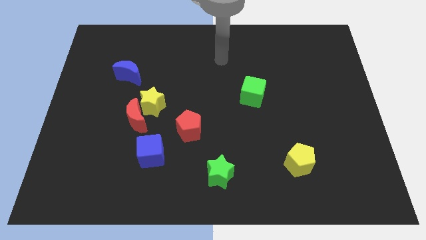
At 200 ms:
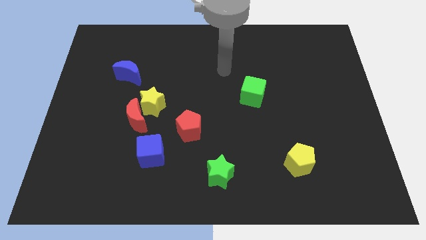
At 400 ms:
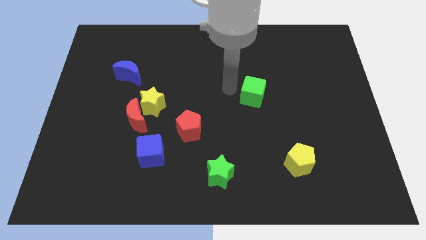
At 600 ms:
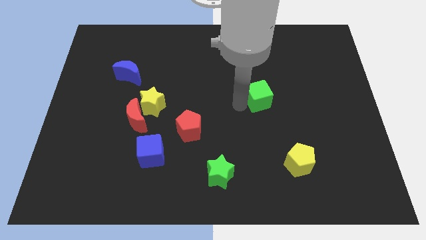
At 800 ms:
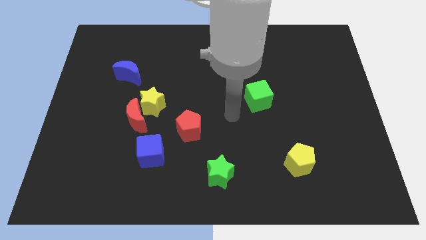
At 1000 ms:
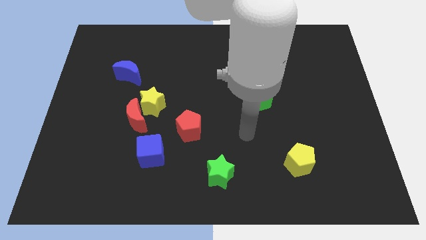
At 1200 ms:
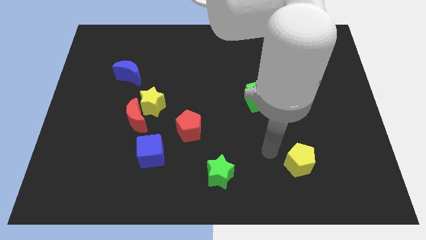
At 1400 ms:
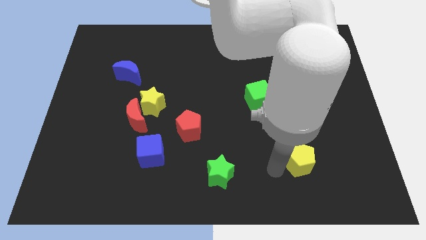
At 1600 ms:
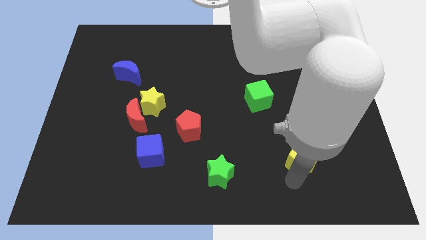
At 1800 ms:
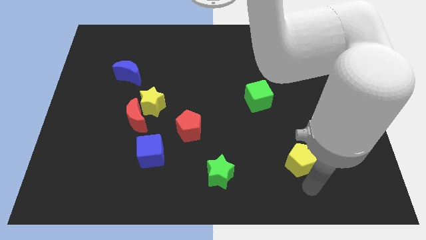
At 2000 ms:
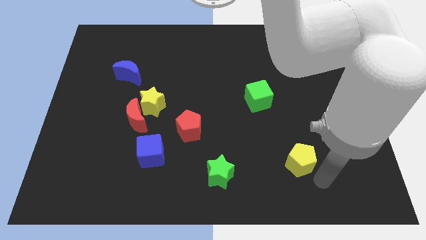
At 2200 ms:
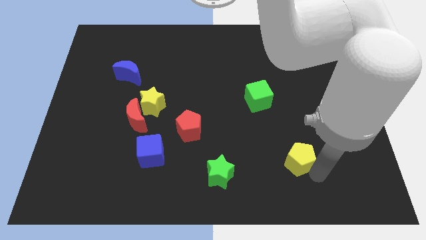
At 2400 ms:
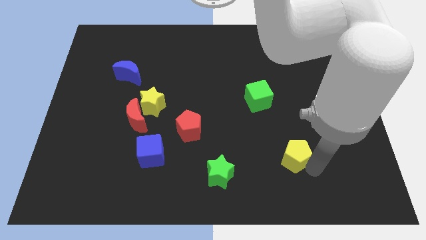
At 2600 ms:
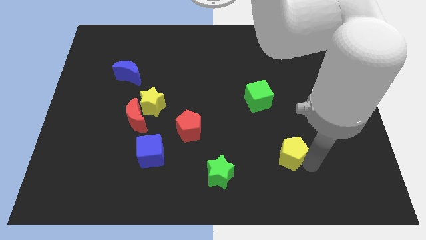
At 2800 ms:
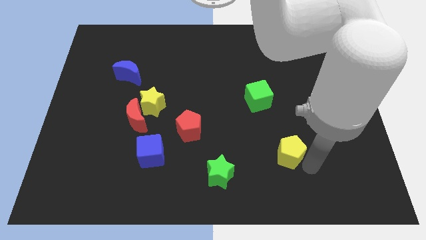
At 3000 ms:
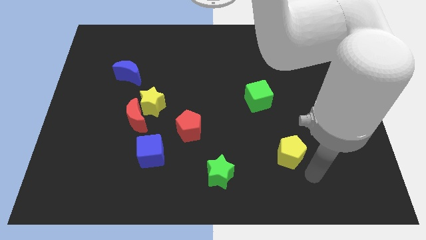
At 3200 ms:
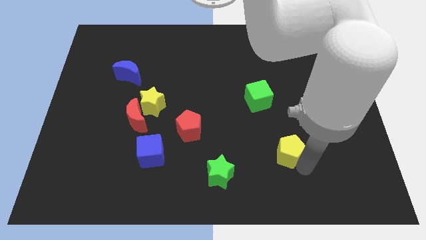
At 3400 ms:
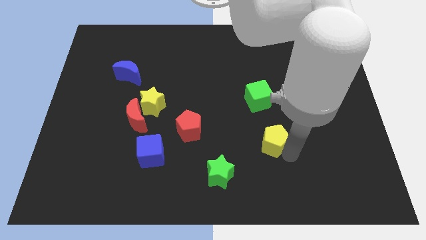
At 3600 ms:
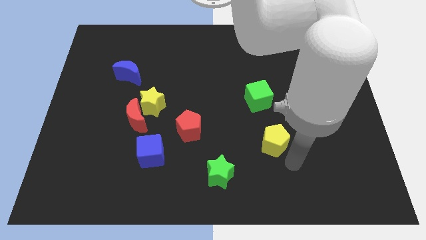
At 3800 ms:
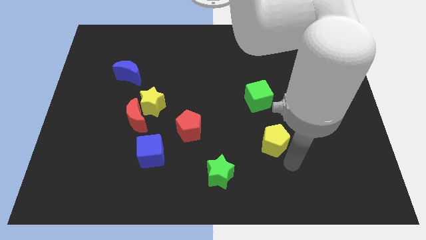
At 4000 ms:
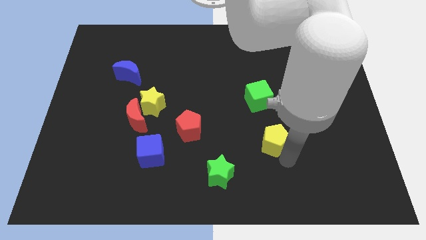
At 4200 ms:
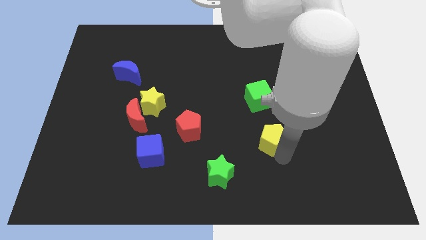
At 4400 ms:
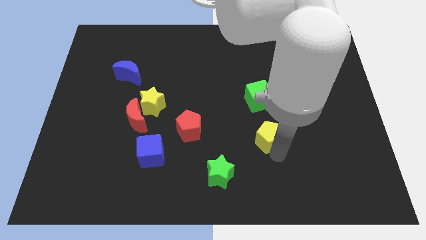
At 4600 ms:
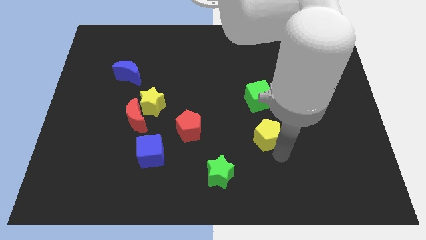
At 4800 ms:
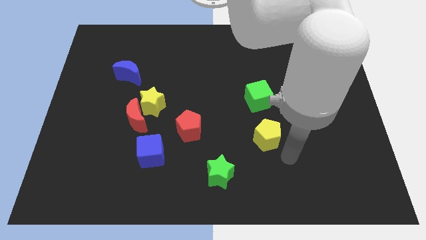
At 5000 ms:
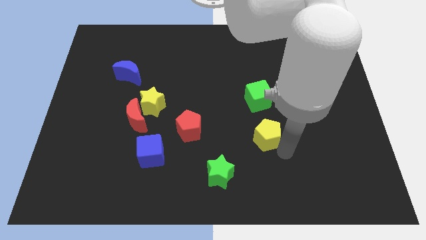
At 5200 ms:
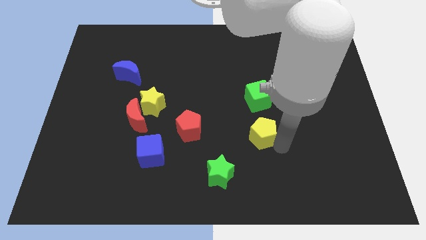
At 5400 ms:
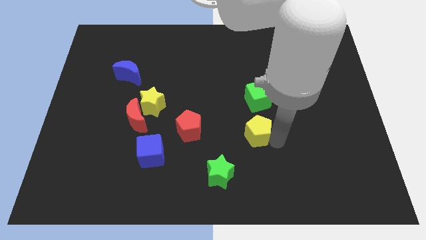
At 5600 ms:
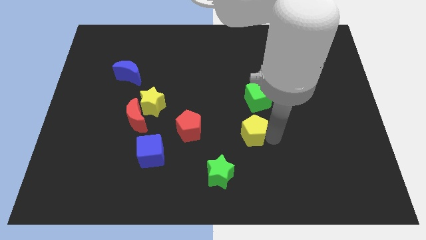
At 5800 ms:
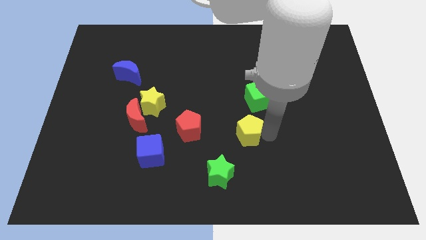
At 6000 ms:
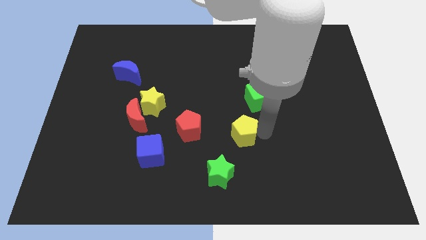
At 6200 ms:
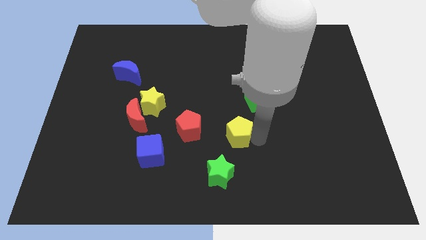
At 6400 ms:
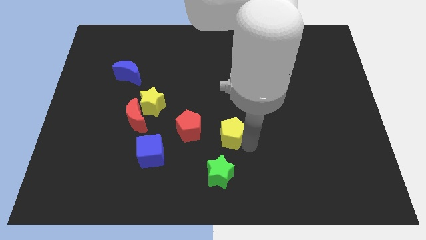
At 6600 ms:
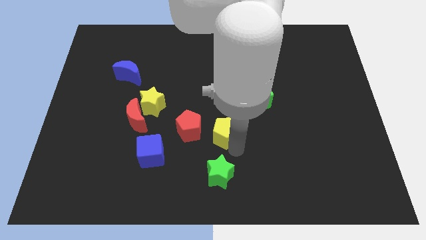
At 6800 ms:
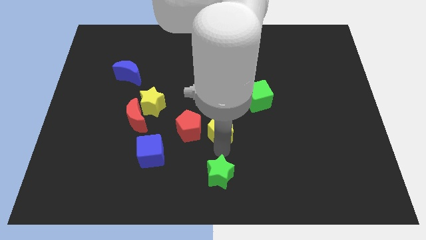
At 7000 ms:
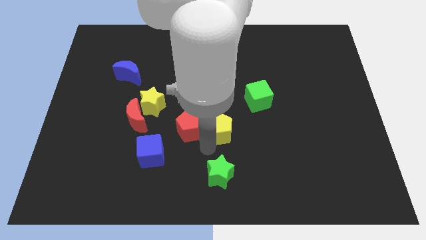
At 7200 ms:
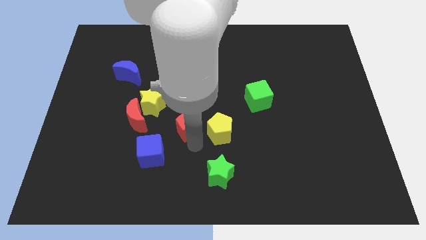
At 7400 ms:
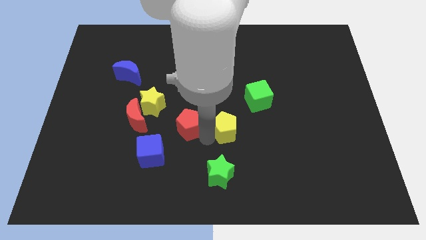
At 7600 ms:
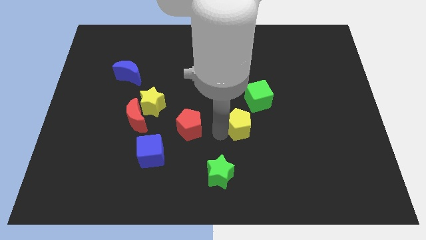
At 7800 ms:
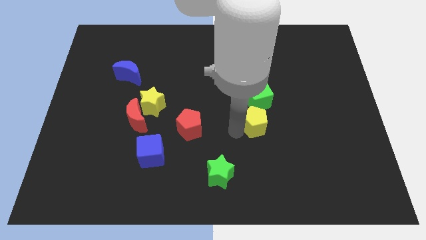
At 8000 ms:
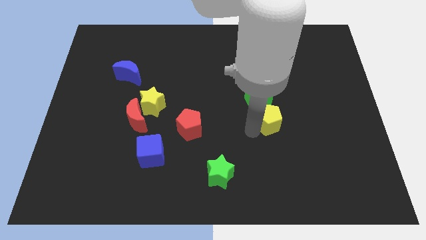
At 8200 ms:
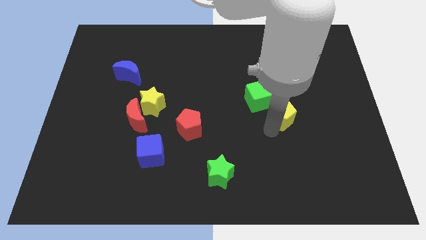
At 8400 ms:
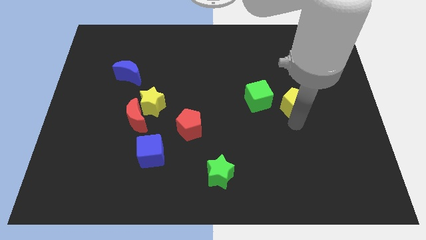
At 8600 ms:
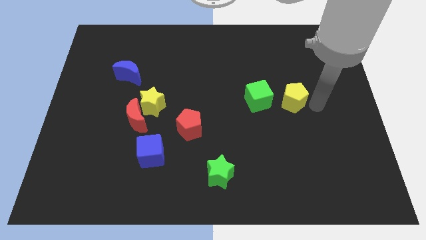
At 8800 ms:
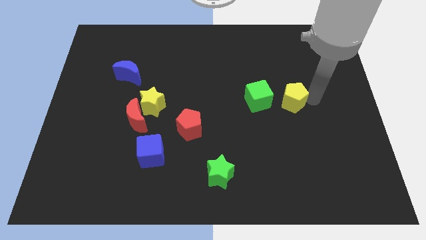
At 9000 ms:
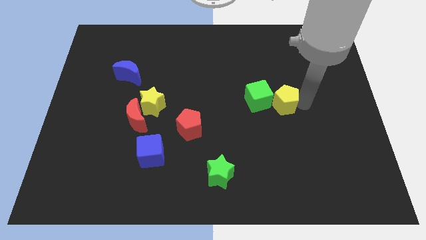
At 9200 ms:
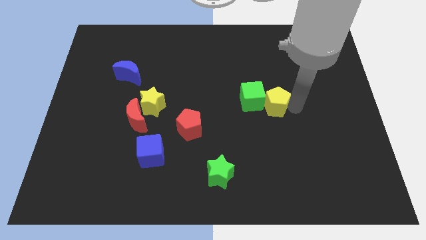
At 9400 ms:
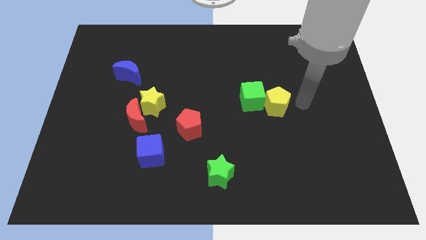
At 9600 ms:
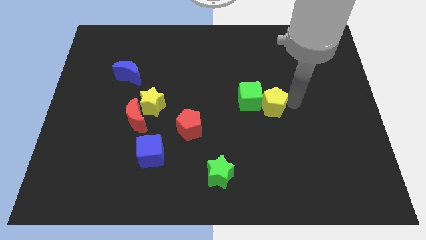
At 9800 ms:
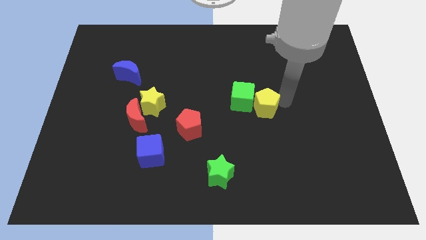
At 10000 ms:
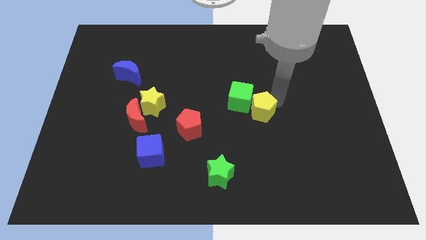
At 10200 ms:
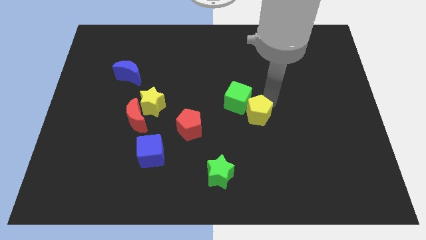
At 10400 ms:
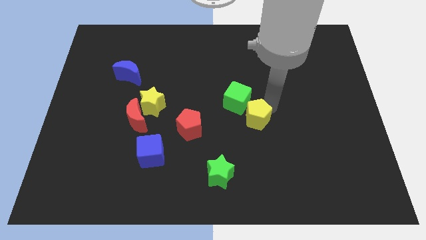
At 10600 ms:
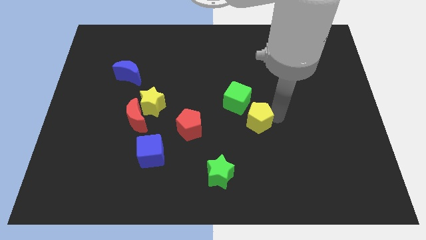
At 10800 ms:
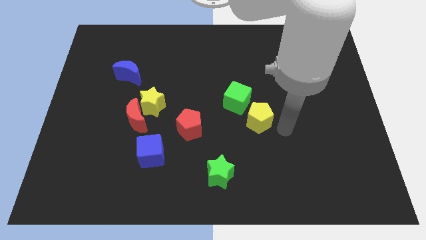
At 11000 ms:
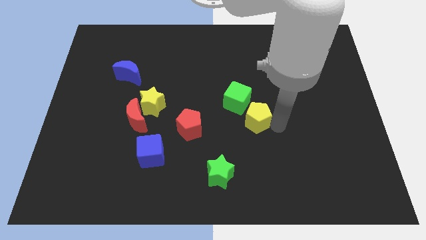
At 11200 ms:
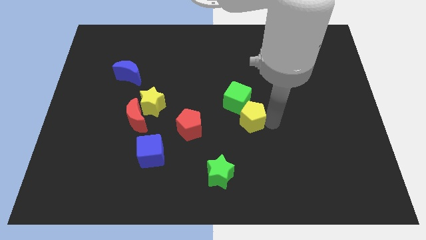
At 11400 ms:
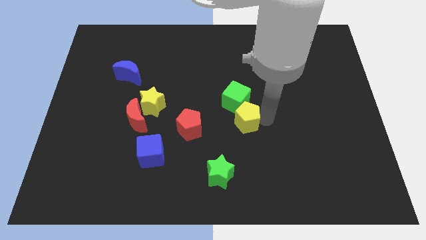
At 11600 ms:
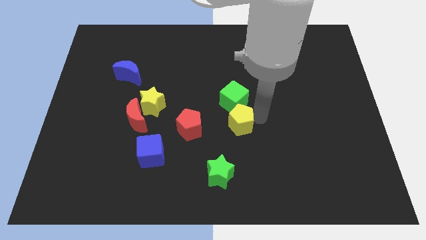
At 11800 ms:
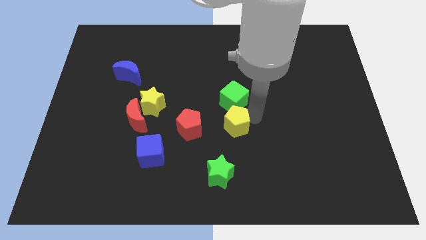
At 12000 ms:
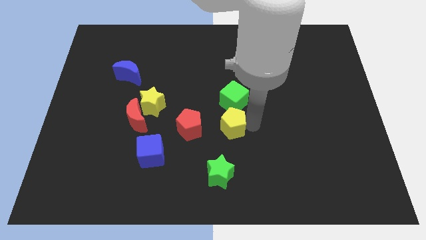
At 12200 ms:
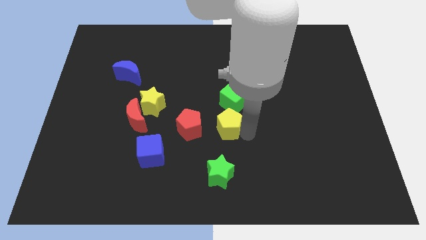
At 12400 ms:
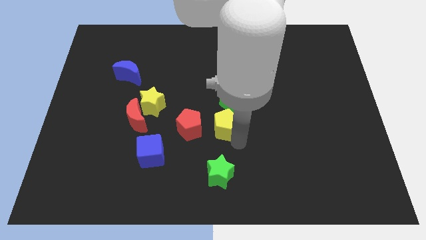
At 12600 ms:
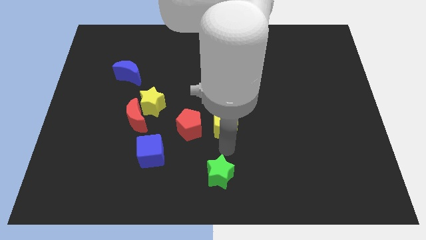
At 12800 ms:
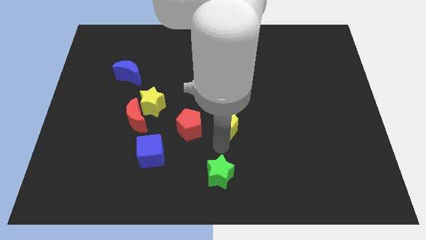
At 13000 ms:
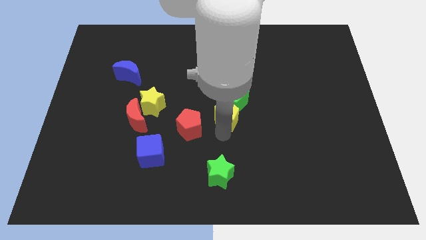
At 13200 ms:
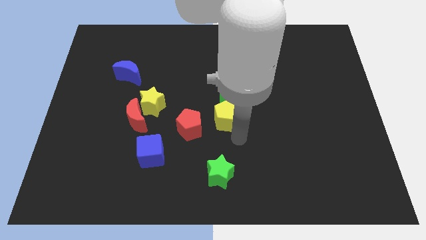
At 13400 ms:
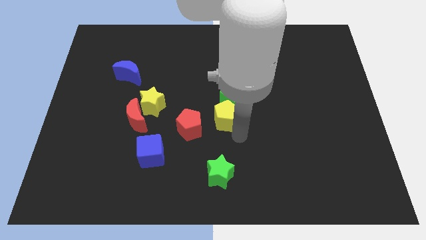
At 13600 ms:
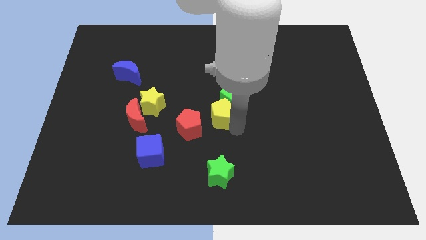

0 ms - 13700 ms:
push the yellow pentagon up and then to the left

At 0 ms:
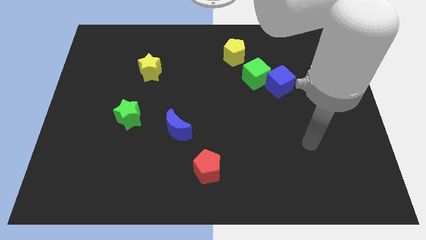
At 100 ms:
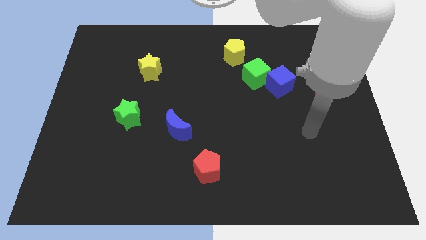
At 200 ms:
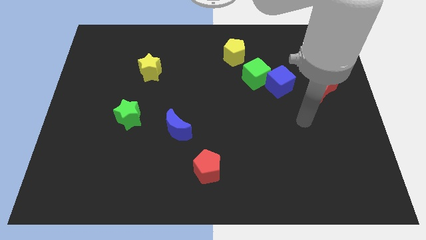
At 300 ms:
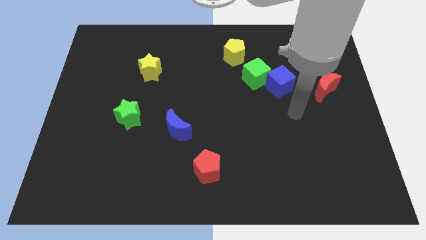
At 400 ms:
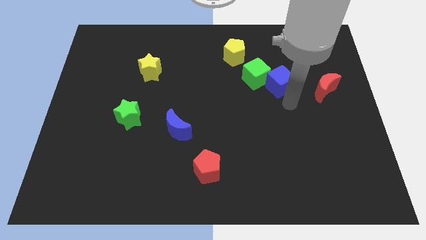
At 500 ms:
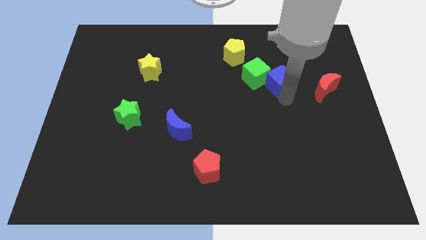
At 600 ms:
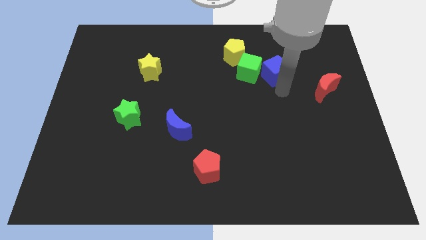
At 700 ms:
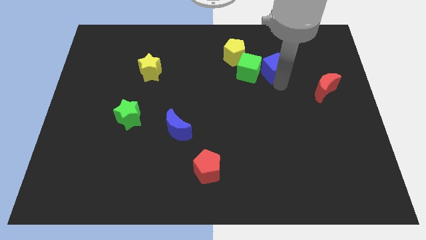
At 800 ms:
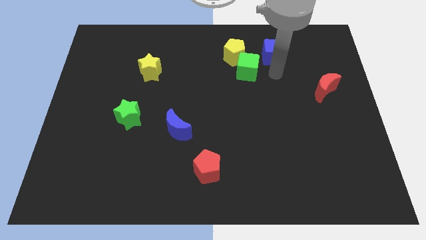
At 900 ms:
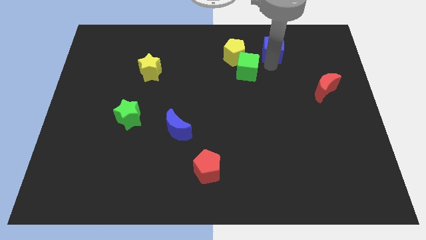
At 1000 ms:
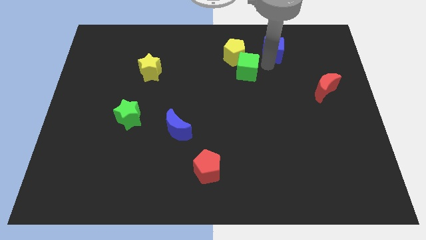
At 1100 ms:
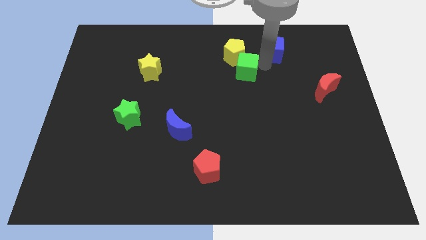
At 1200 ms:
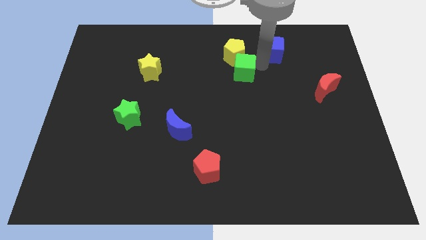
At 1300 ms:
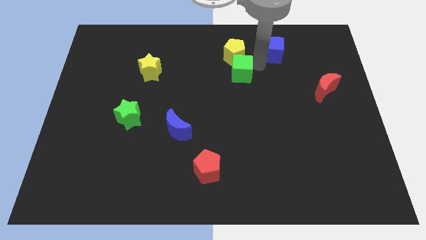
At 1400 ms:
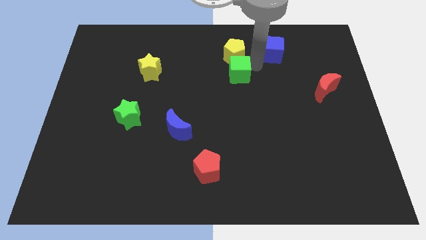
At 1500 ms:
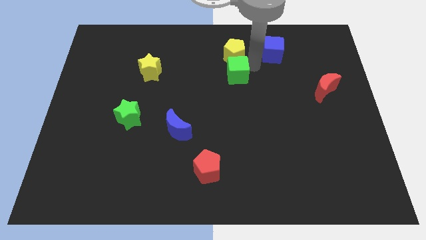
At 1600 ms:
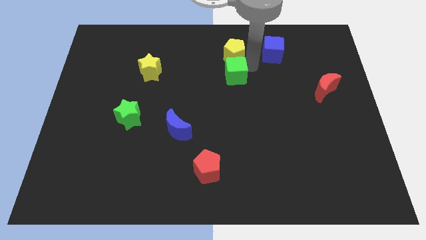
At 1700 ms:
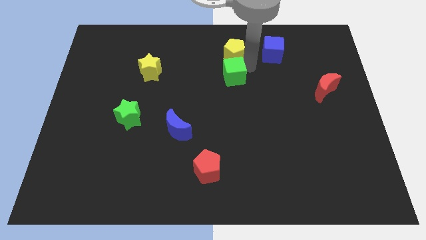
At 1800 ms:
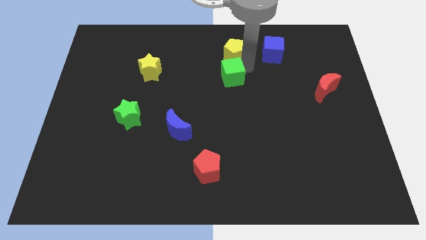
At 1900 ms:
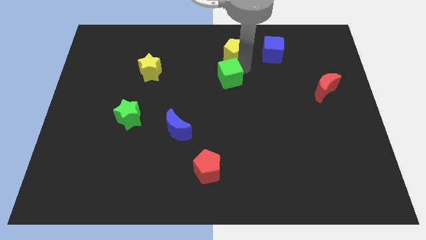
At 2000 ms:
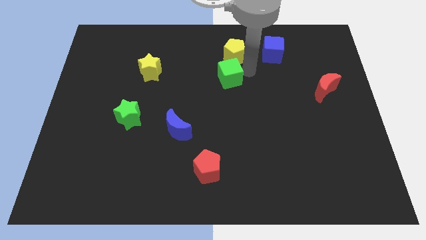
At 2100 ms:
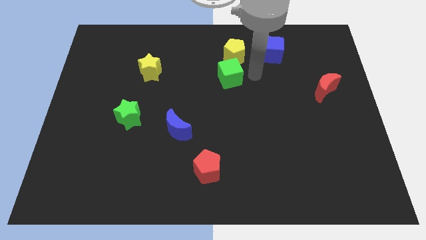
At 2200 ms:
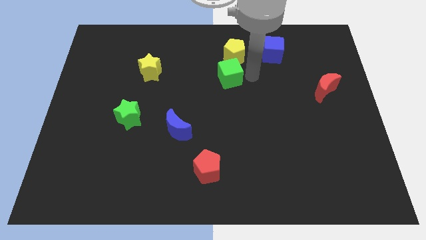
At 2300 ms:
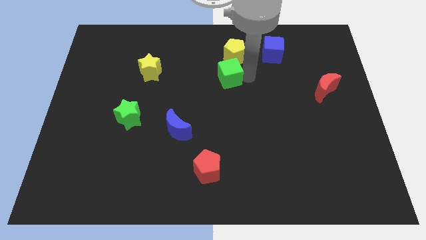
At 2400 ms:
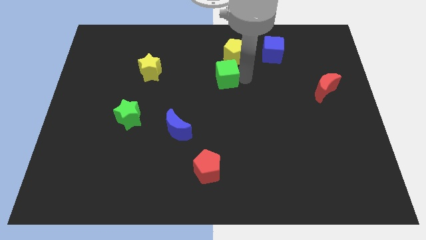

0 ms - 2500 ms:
slide the green cube somewhat left
